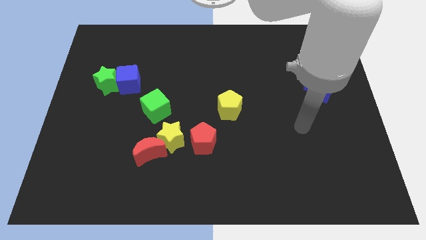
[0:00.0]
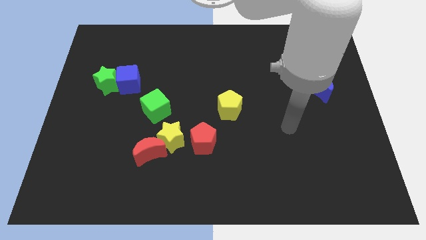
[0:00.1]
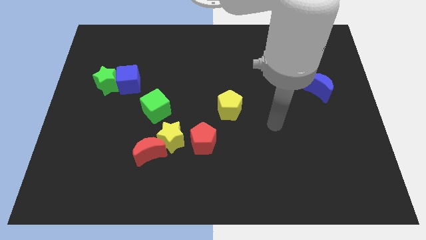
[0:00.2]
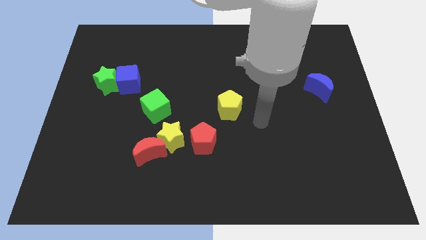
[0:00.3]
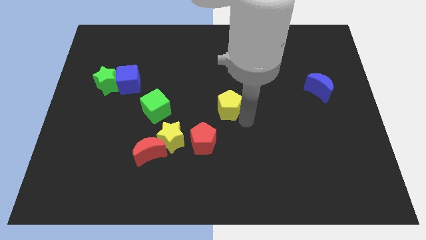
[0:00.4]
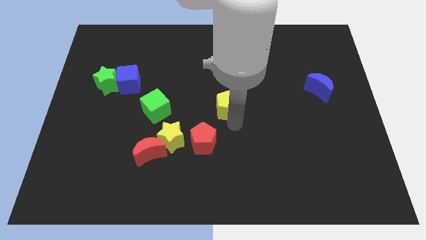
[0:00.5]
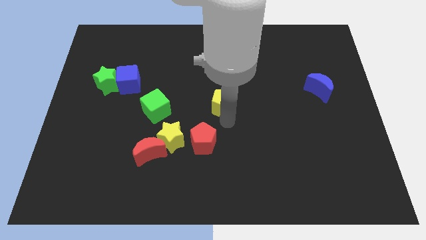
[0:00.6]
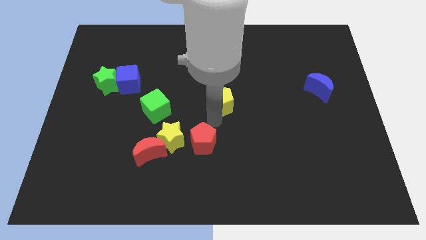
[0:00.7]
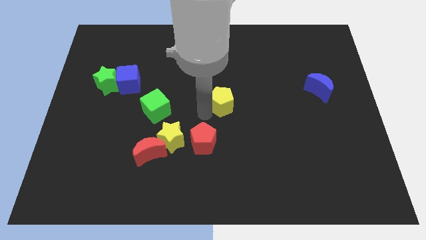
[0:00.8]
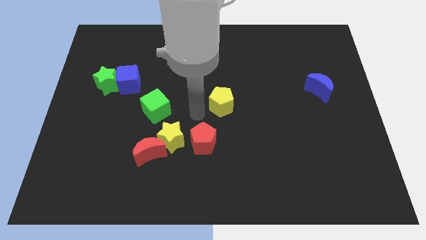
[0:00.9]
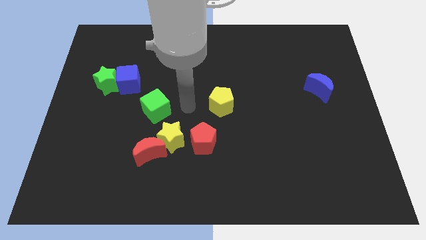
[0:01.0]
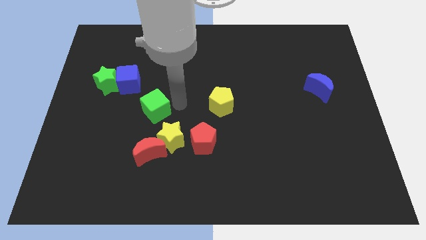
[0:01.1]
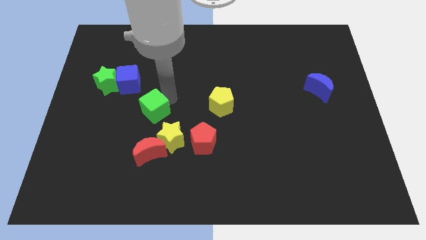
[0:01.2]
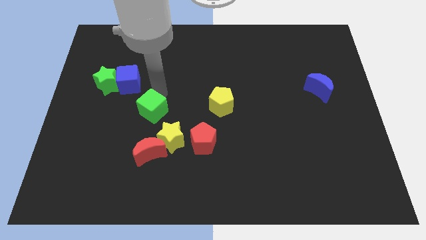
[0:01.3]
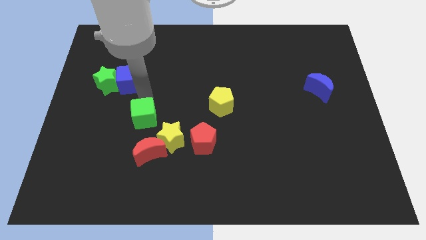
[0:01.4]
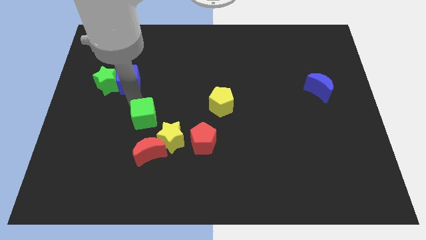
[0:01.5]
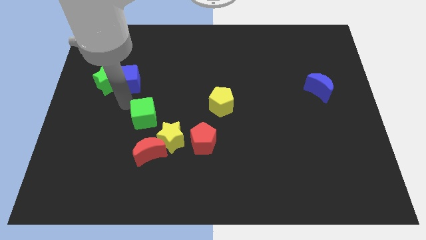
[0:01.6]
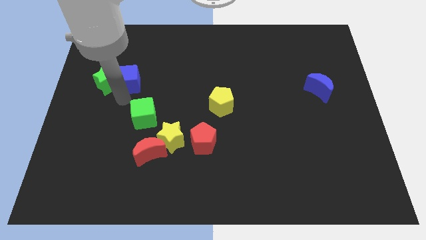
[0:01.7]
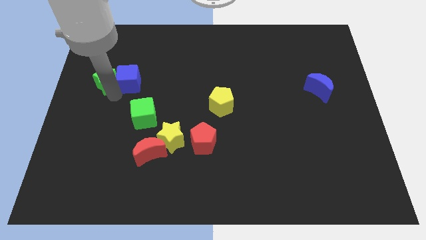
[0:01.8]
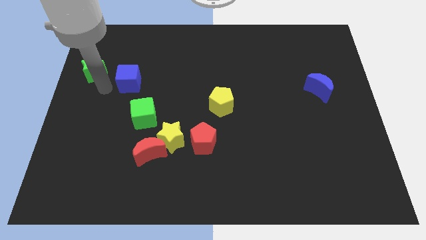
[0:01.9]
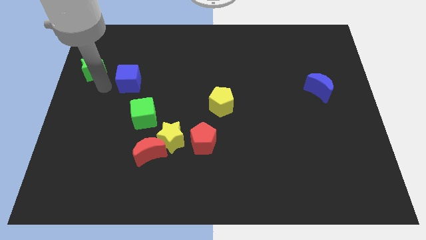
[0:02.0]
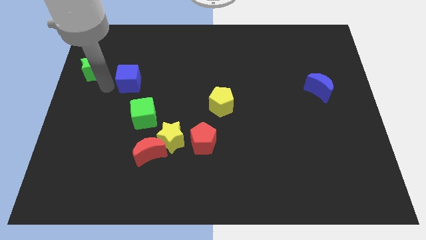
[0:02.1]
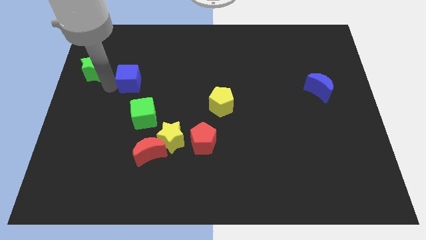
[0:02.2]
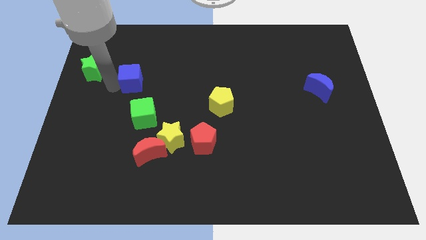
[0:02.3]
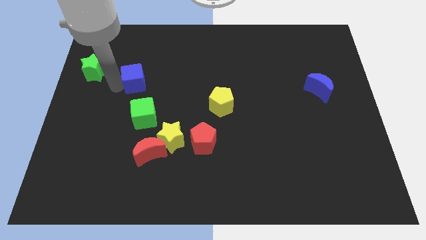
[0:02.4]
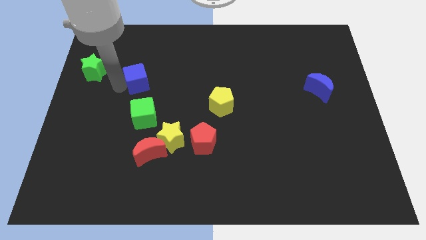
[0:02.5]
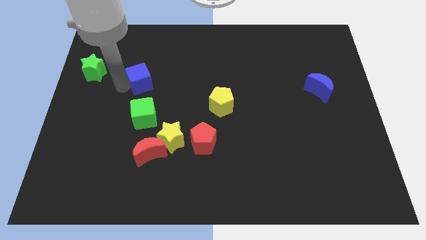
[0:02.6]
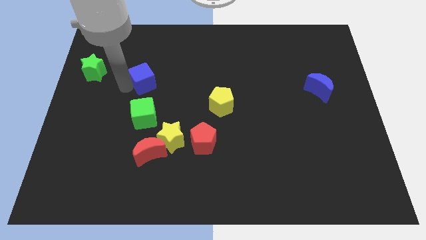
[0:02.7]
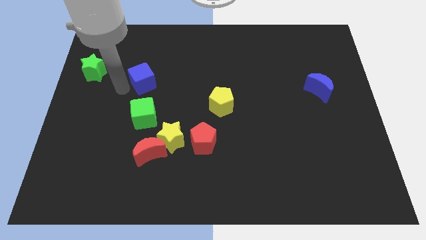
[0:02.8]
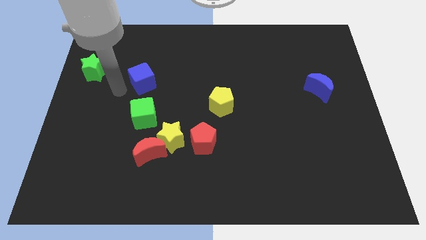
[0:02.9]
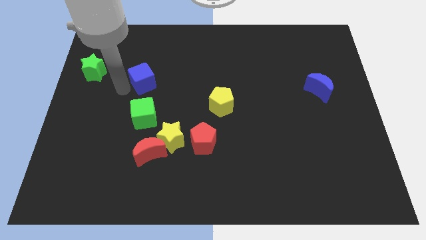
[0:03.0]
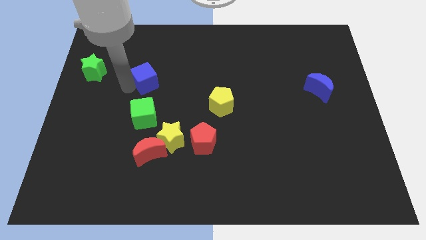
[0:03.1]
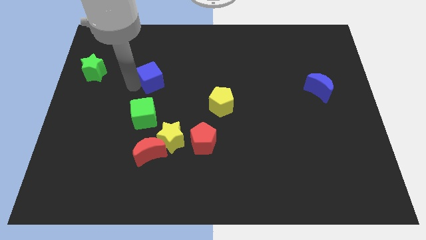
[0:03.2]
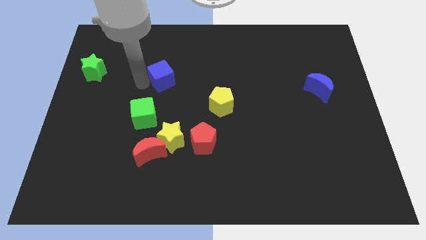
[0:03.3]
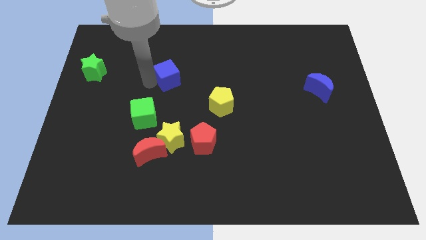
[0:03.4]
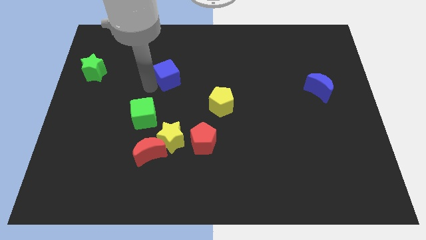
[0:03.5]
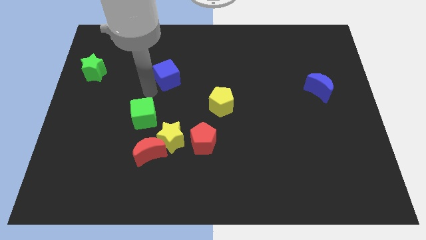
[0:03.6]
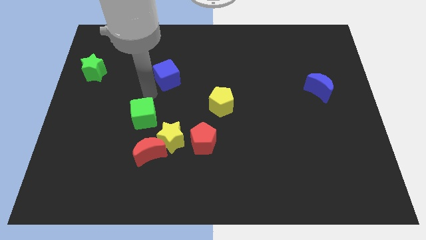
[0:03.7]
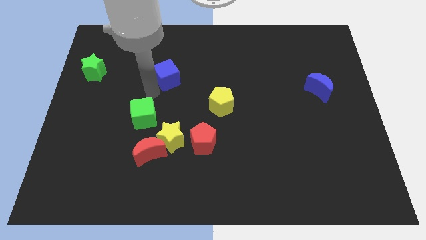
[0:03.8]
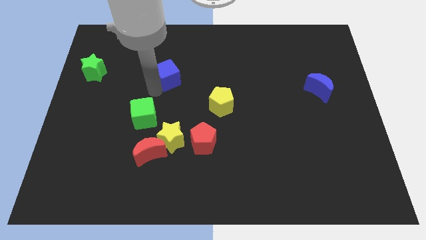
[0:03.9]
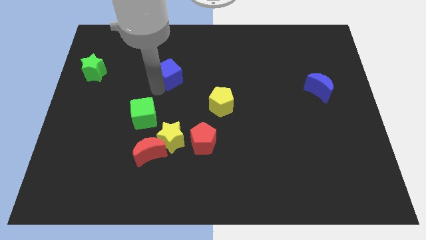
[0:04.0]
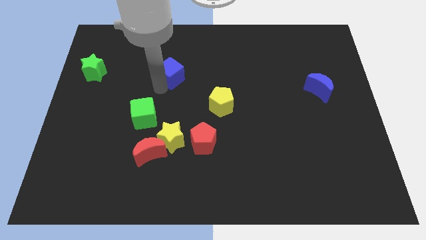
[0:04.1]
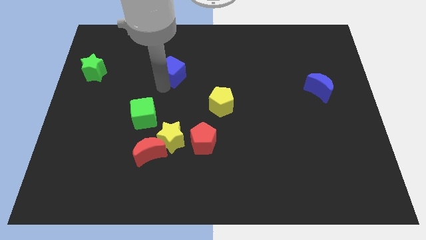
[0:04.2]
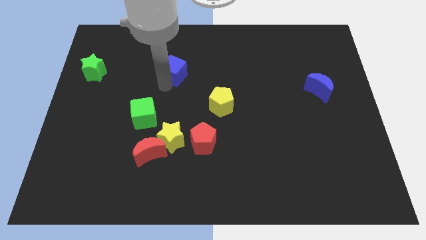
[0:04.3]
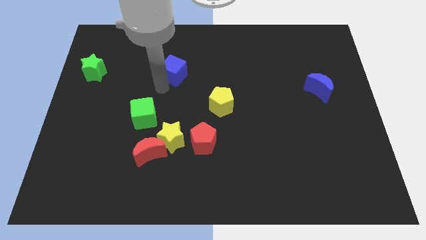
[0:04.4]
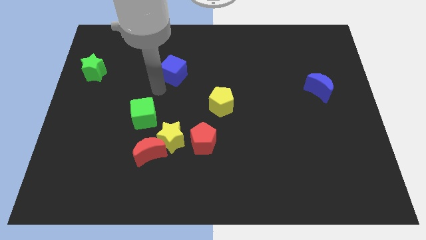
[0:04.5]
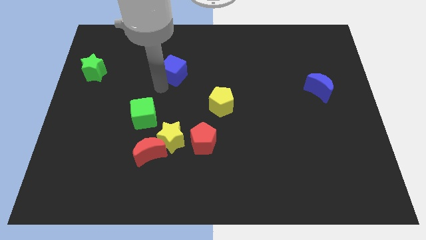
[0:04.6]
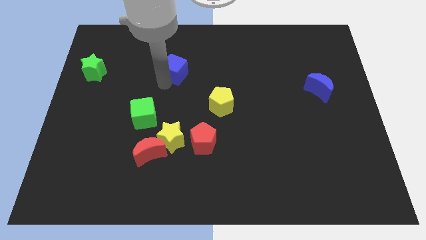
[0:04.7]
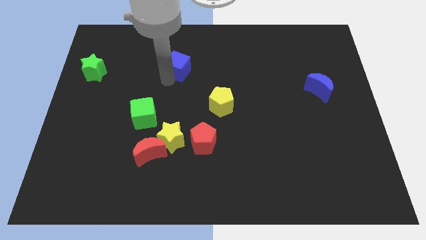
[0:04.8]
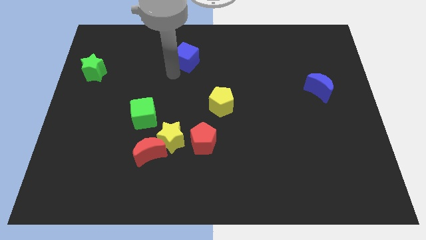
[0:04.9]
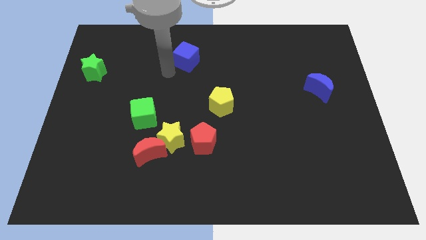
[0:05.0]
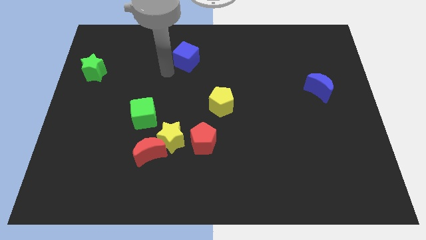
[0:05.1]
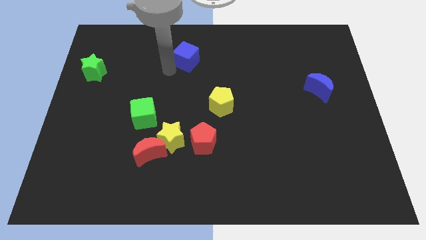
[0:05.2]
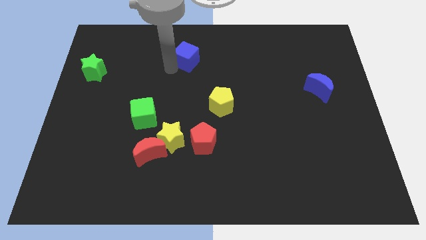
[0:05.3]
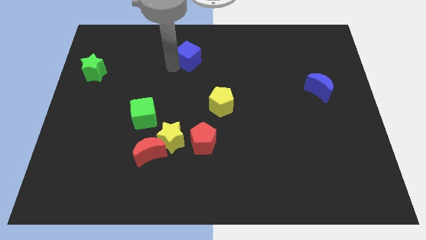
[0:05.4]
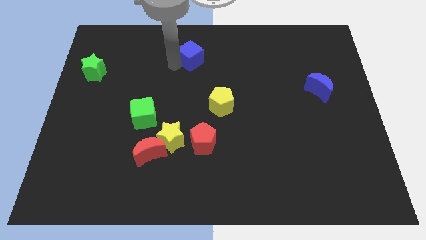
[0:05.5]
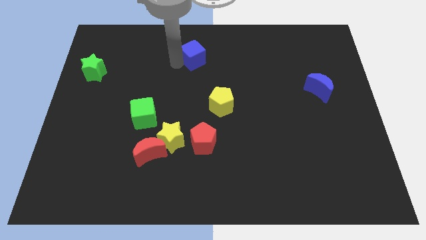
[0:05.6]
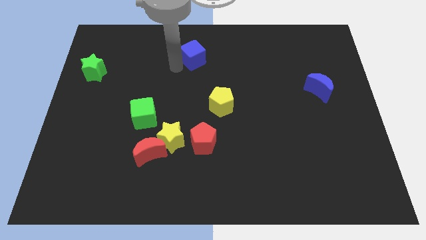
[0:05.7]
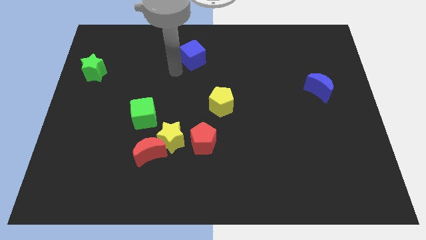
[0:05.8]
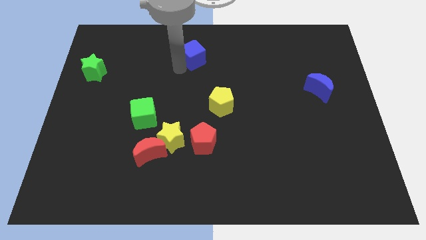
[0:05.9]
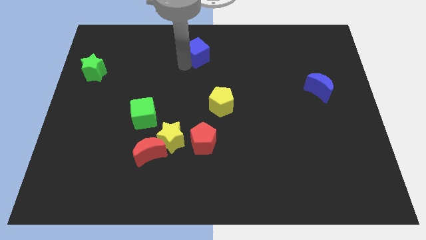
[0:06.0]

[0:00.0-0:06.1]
put the blue cube to the towards your base
